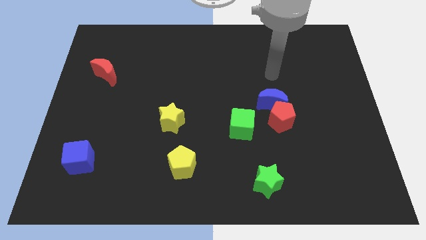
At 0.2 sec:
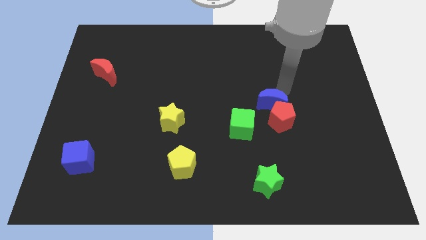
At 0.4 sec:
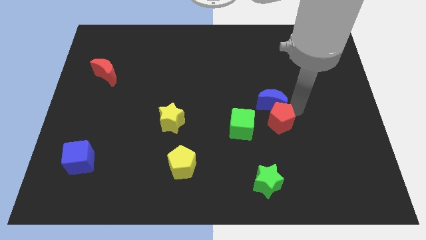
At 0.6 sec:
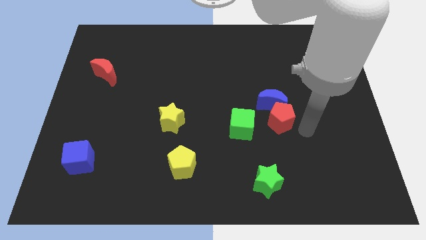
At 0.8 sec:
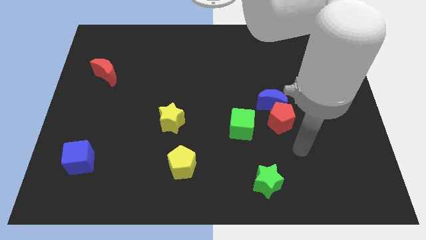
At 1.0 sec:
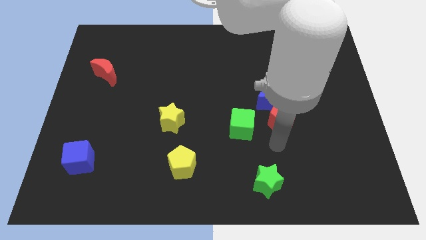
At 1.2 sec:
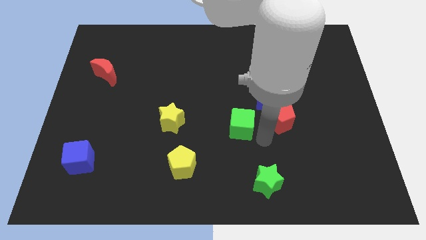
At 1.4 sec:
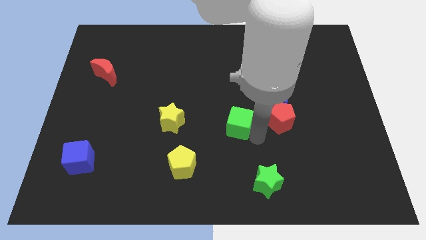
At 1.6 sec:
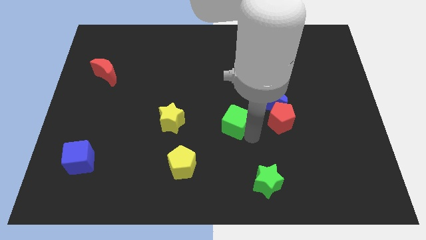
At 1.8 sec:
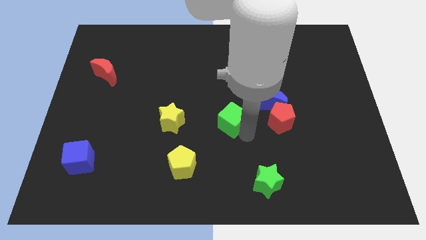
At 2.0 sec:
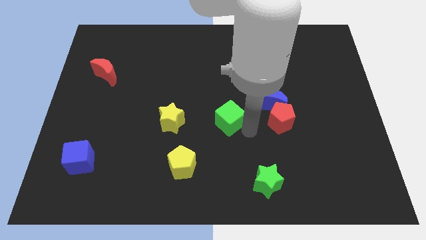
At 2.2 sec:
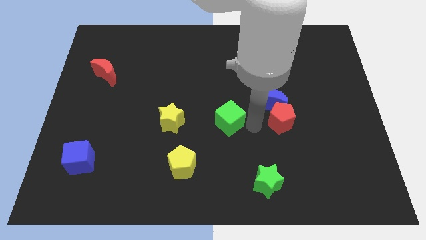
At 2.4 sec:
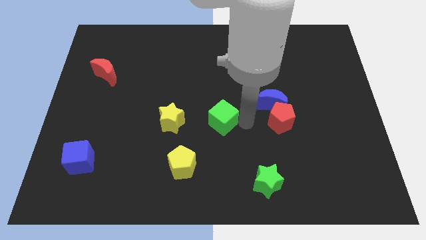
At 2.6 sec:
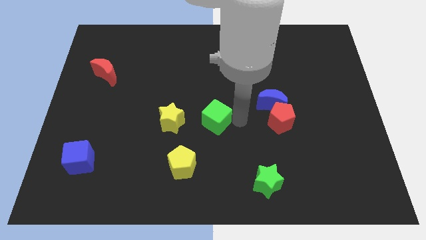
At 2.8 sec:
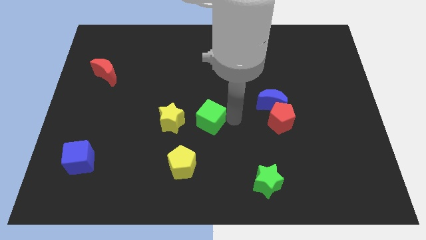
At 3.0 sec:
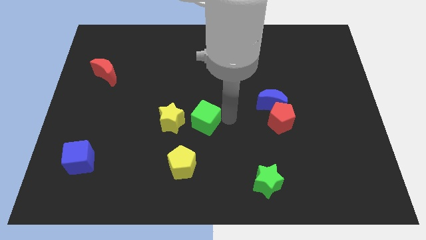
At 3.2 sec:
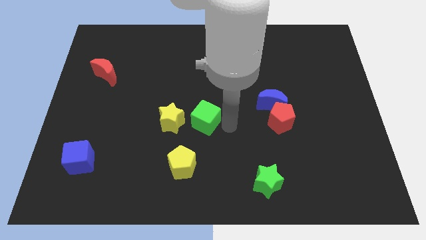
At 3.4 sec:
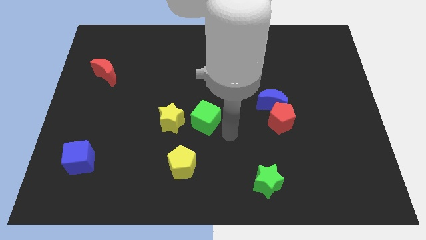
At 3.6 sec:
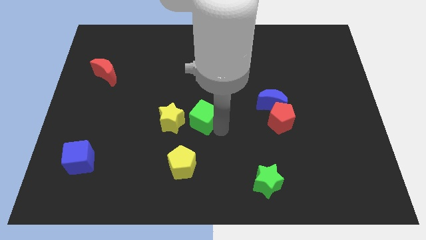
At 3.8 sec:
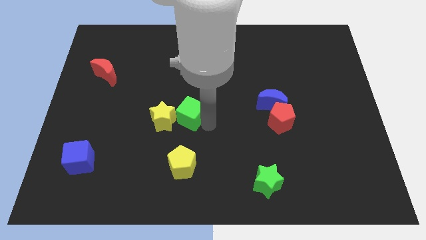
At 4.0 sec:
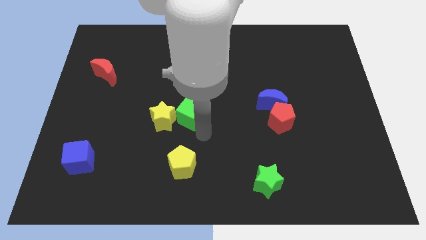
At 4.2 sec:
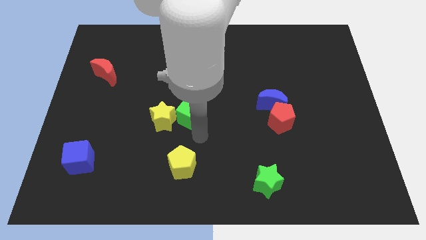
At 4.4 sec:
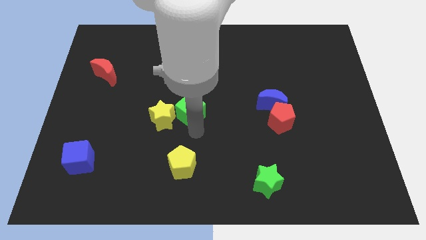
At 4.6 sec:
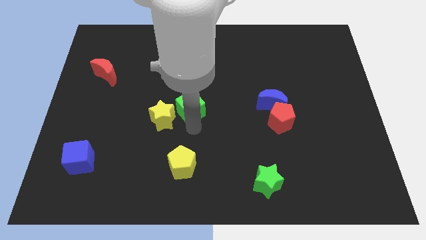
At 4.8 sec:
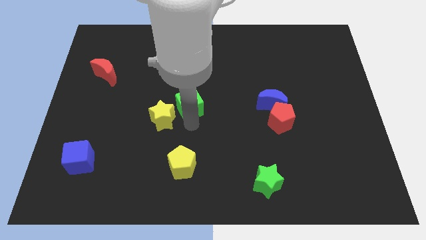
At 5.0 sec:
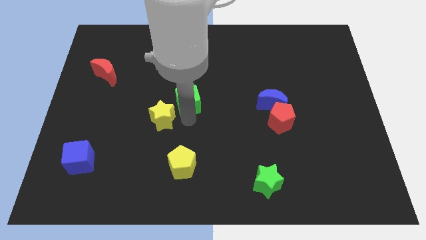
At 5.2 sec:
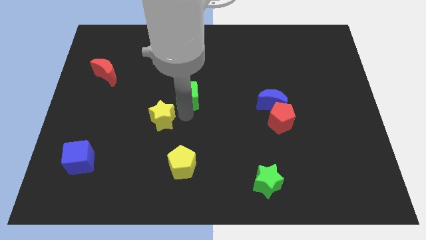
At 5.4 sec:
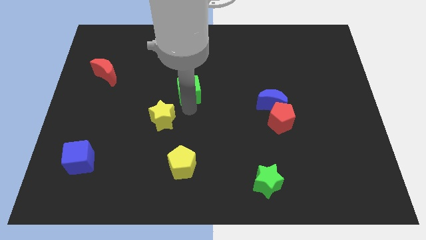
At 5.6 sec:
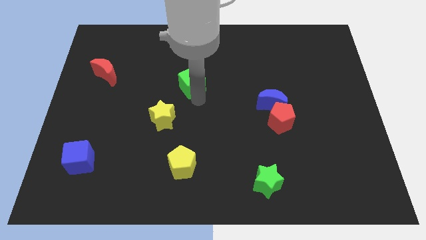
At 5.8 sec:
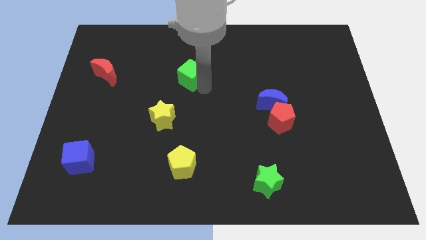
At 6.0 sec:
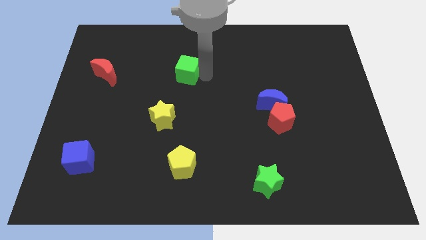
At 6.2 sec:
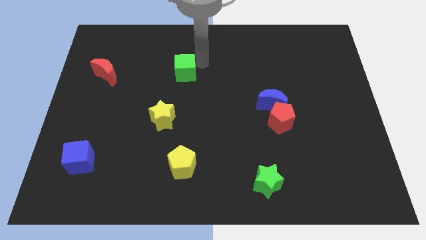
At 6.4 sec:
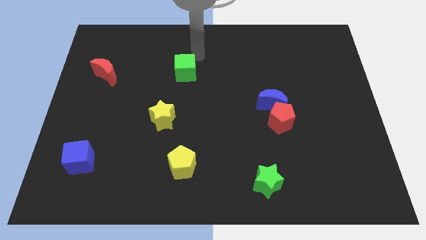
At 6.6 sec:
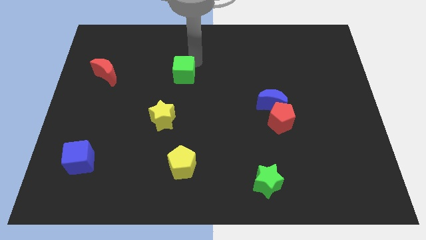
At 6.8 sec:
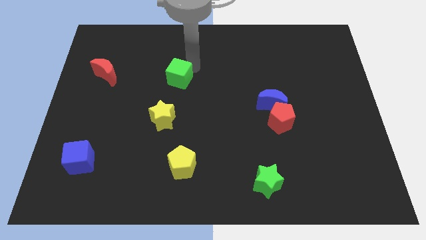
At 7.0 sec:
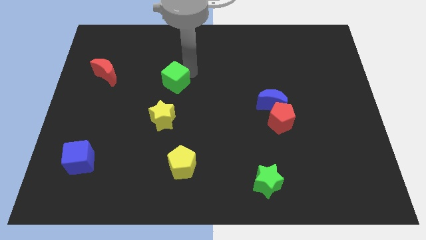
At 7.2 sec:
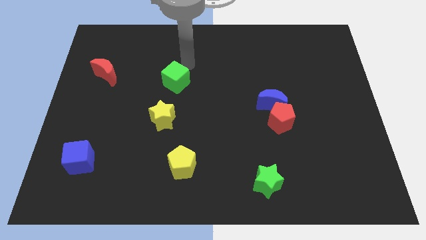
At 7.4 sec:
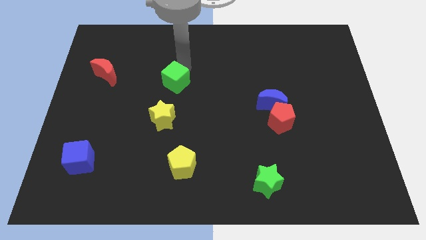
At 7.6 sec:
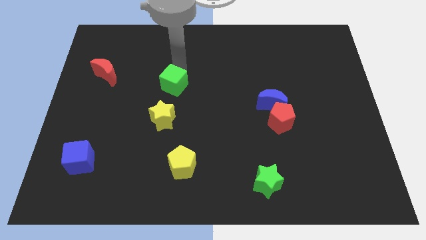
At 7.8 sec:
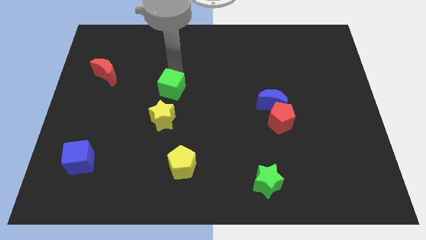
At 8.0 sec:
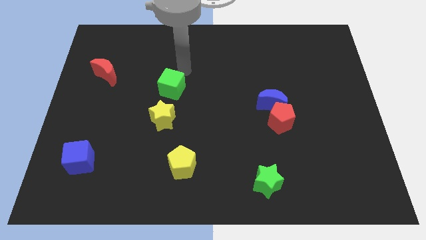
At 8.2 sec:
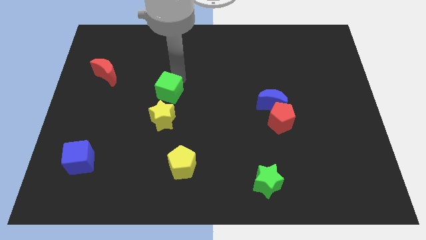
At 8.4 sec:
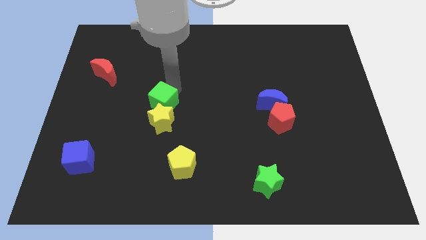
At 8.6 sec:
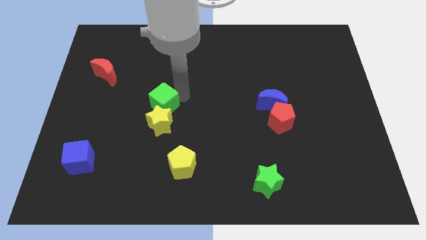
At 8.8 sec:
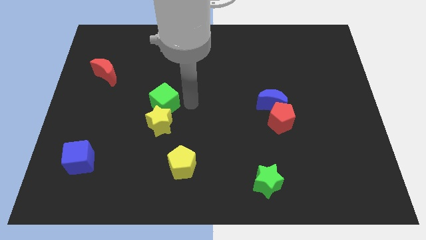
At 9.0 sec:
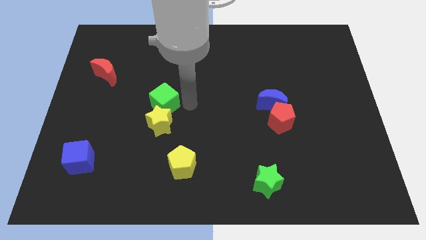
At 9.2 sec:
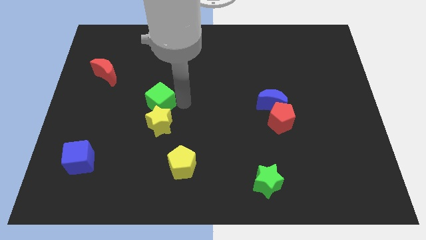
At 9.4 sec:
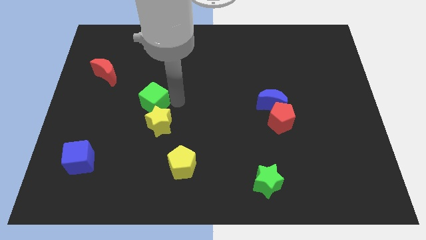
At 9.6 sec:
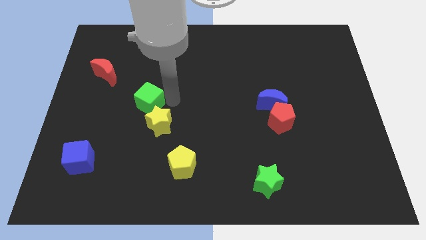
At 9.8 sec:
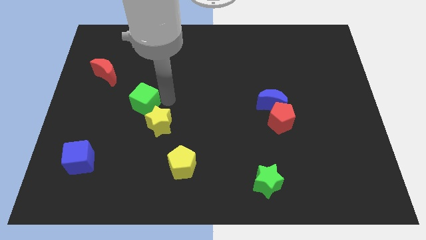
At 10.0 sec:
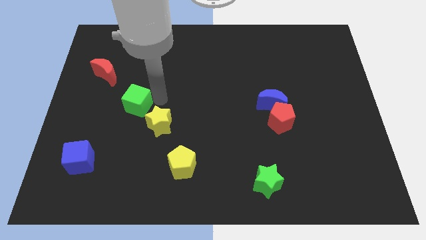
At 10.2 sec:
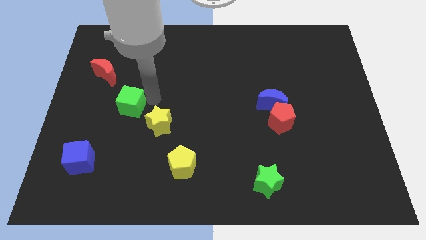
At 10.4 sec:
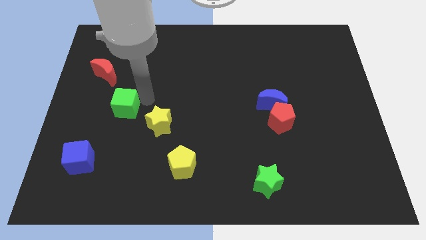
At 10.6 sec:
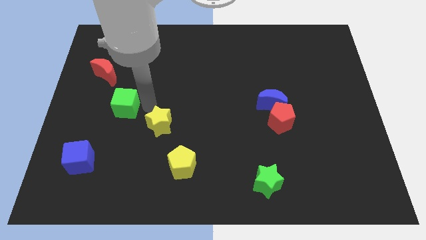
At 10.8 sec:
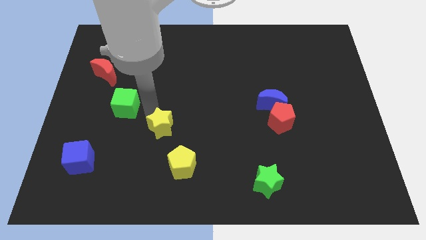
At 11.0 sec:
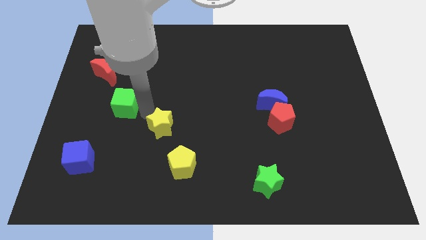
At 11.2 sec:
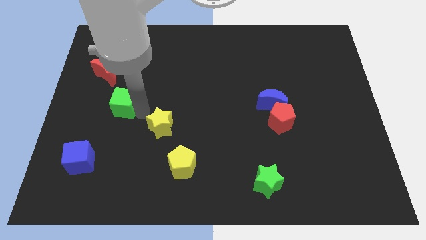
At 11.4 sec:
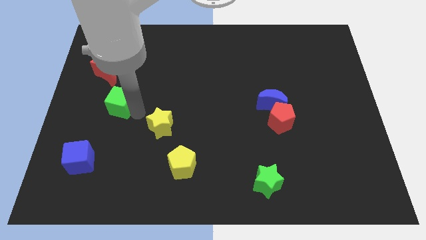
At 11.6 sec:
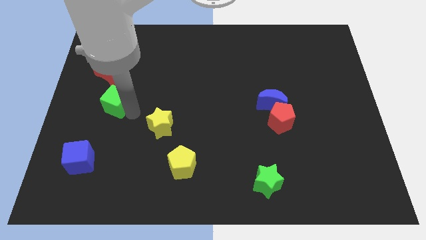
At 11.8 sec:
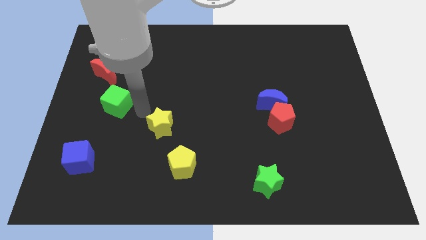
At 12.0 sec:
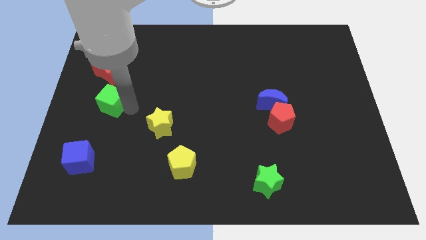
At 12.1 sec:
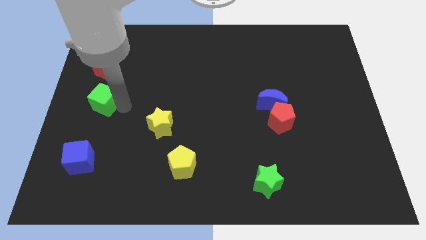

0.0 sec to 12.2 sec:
put the green cube to the center left

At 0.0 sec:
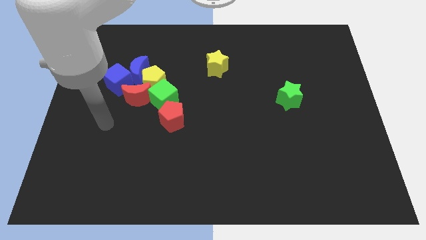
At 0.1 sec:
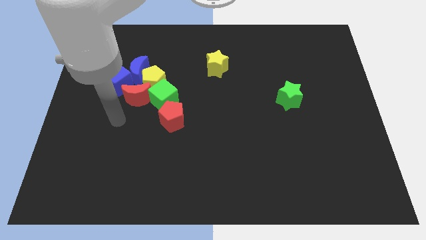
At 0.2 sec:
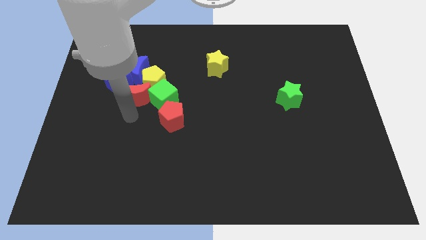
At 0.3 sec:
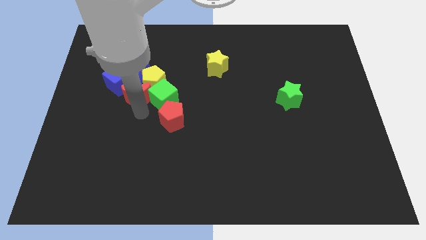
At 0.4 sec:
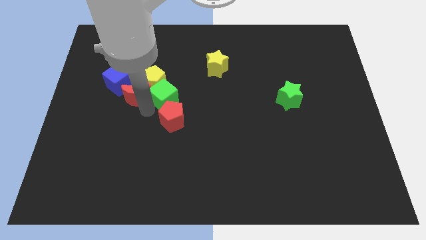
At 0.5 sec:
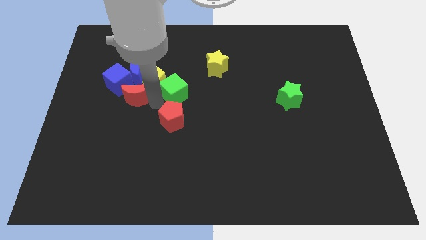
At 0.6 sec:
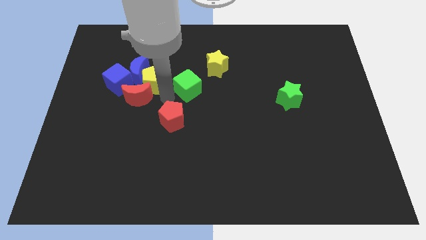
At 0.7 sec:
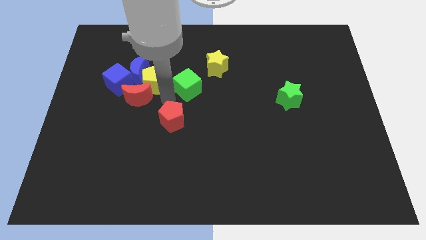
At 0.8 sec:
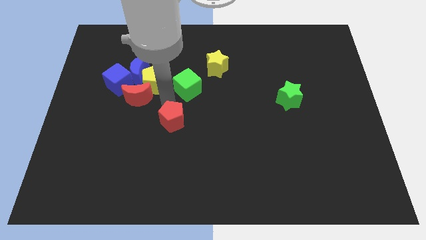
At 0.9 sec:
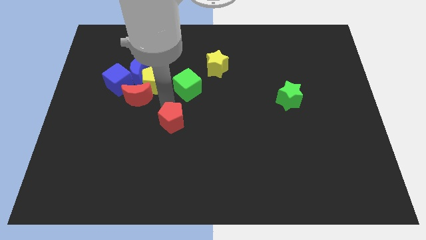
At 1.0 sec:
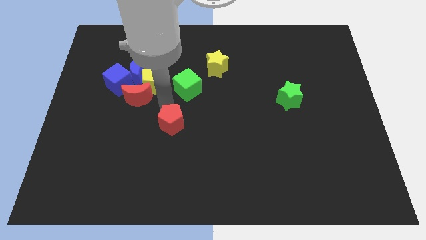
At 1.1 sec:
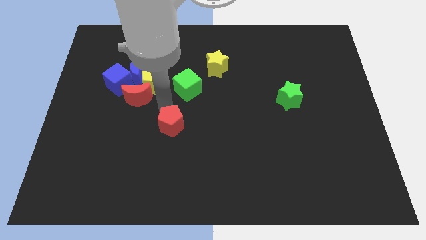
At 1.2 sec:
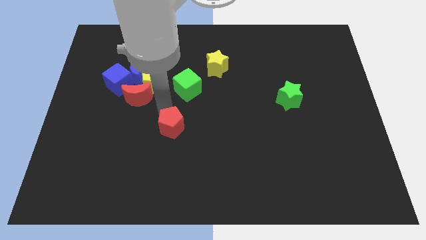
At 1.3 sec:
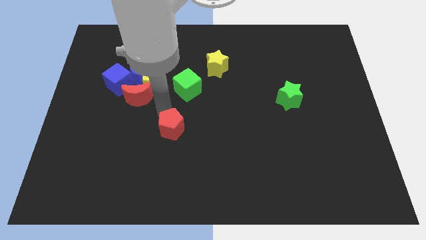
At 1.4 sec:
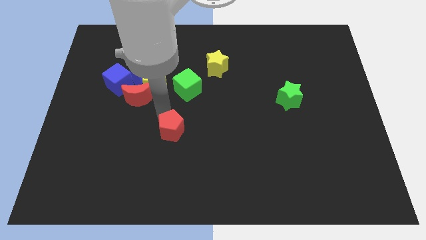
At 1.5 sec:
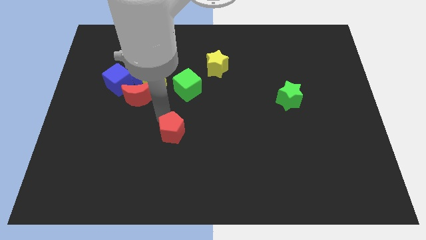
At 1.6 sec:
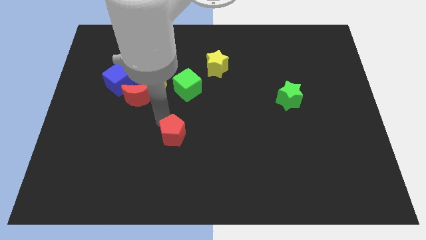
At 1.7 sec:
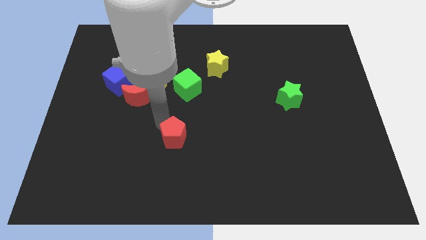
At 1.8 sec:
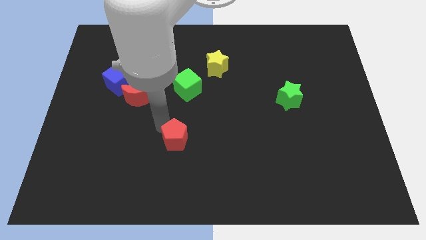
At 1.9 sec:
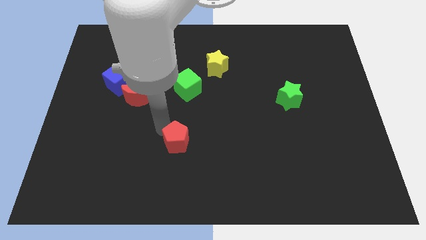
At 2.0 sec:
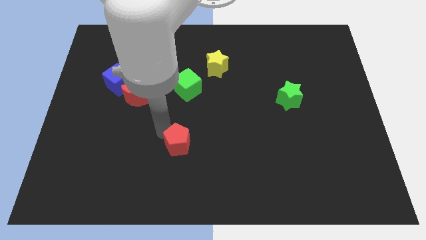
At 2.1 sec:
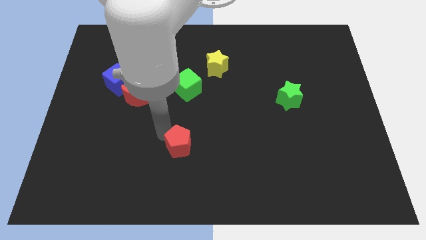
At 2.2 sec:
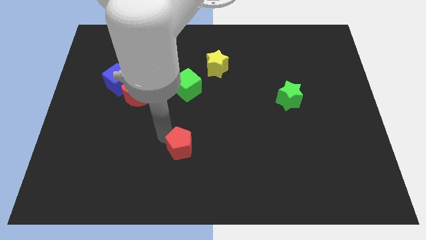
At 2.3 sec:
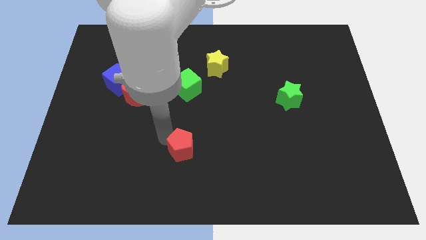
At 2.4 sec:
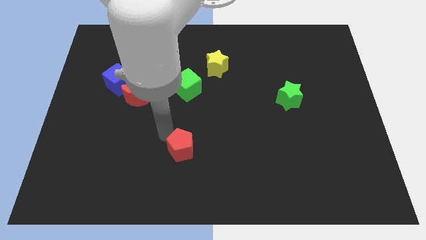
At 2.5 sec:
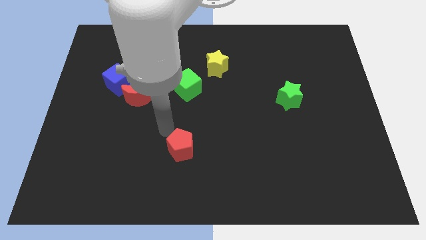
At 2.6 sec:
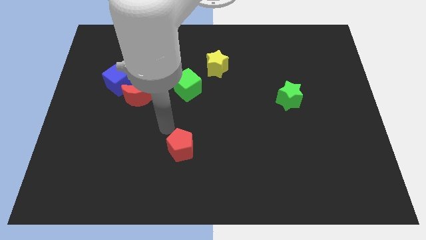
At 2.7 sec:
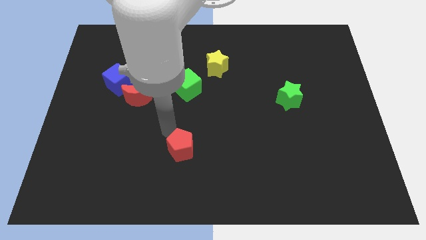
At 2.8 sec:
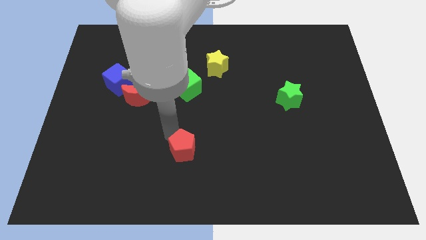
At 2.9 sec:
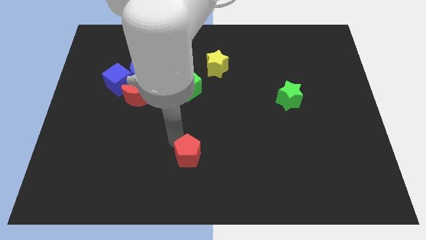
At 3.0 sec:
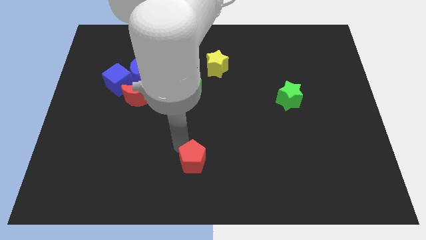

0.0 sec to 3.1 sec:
put the red pentagon to the bottom
